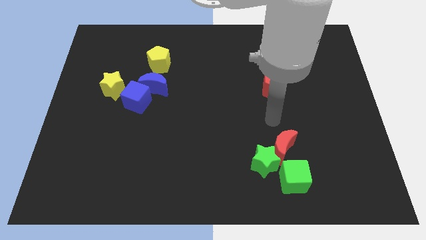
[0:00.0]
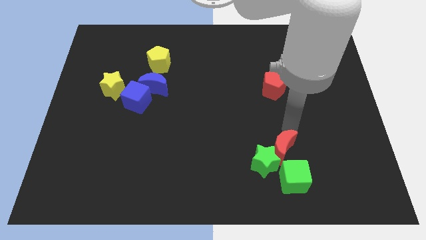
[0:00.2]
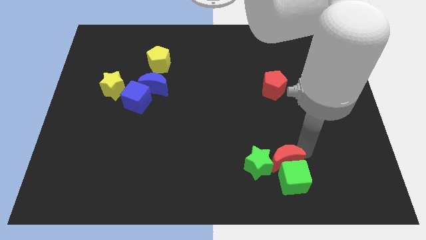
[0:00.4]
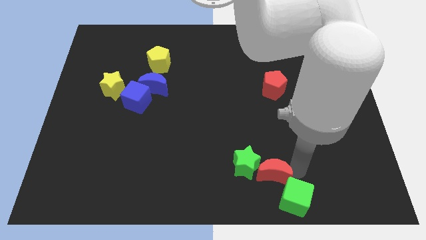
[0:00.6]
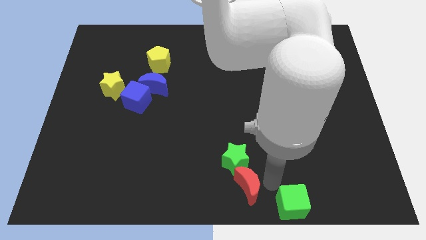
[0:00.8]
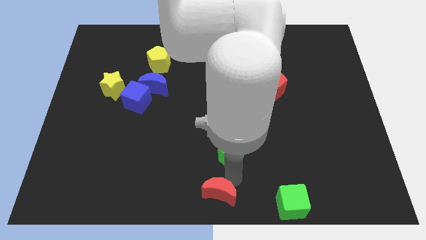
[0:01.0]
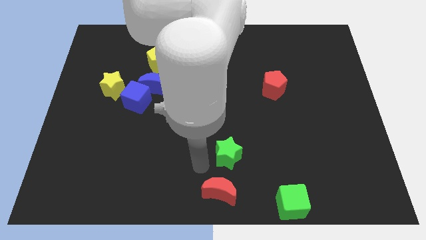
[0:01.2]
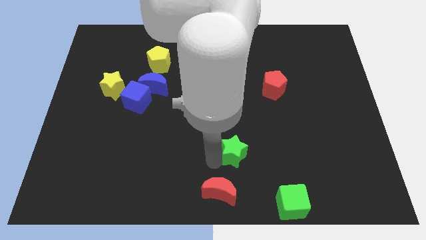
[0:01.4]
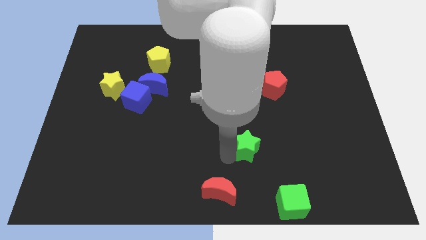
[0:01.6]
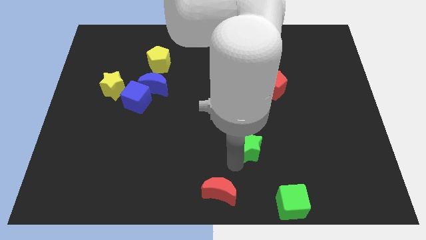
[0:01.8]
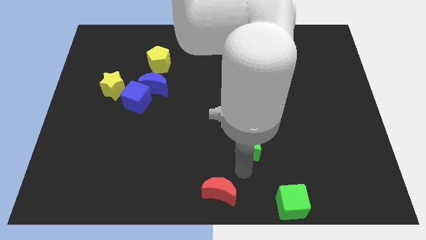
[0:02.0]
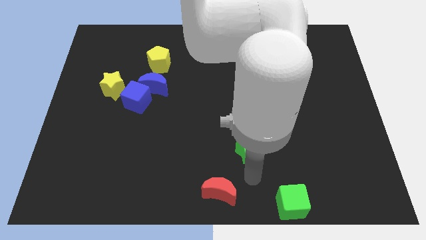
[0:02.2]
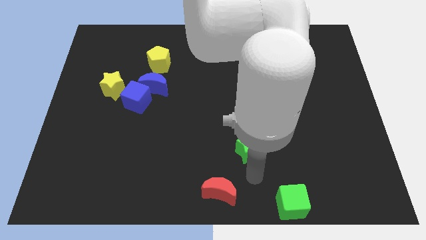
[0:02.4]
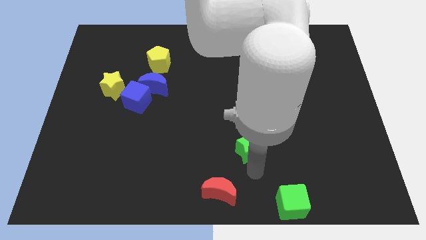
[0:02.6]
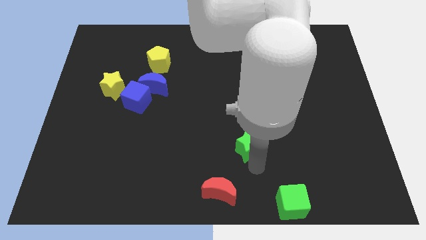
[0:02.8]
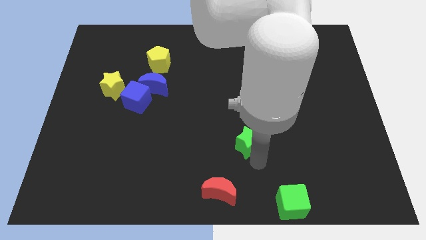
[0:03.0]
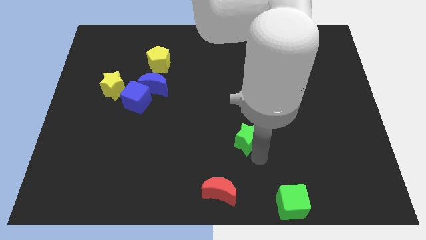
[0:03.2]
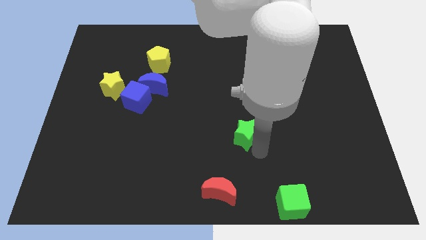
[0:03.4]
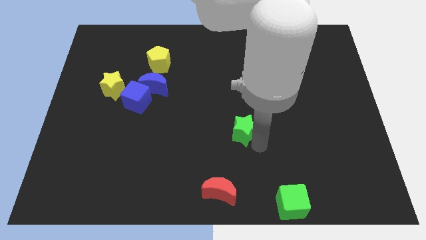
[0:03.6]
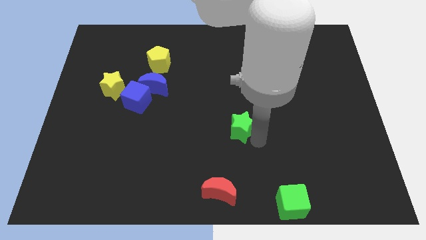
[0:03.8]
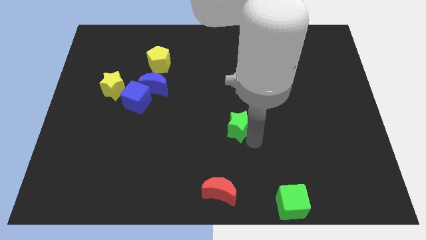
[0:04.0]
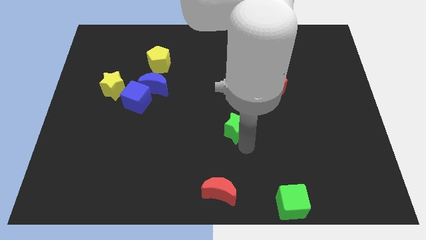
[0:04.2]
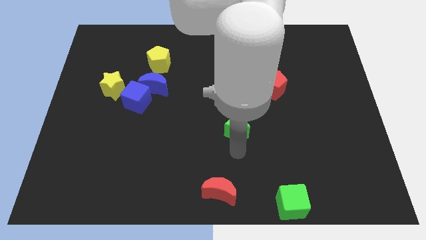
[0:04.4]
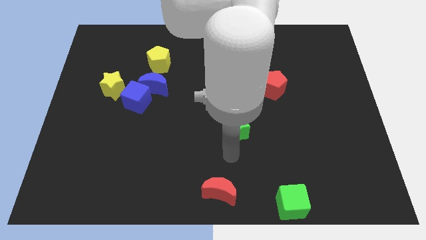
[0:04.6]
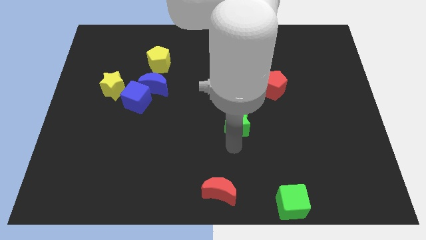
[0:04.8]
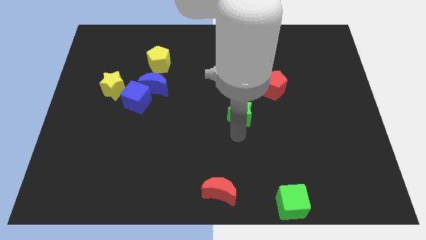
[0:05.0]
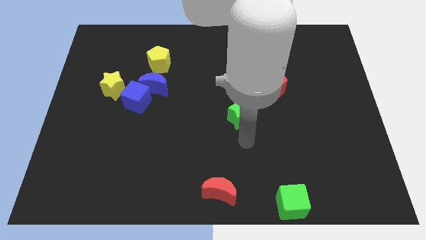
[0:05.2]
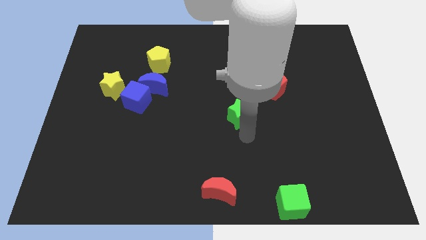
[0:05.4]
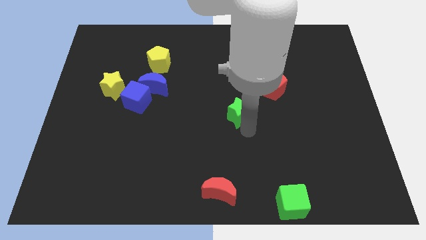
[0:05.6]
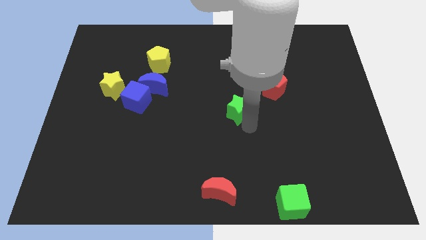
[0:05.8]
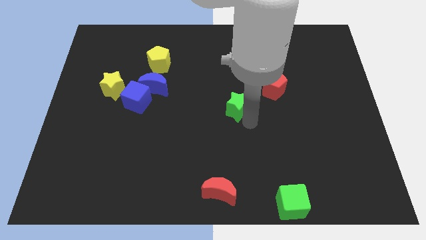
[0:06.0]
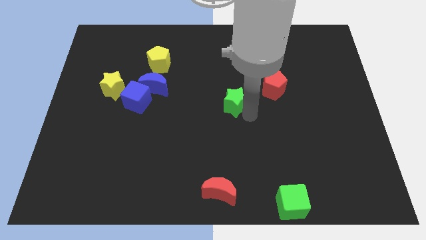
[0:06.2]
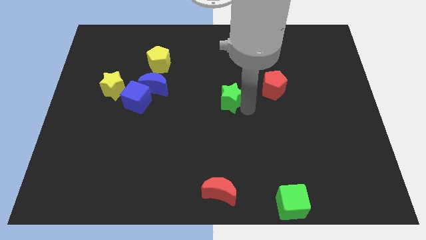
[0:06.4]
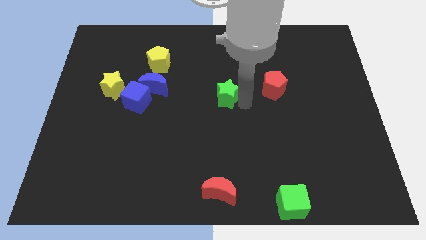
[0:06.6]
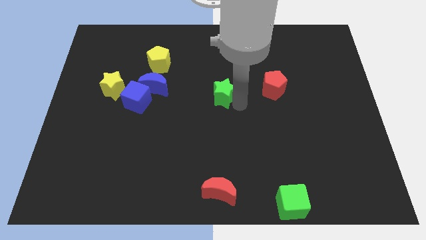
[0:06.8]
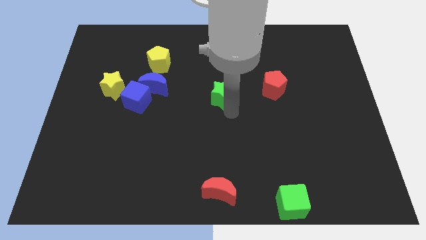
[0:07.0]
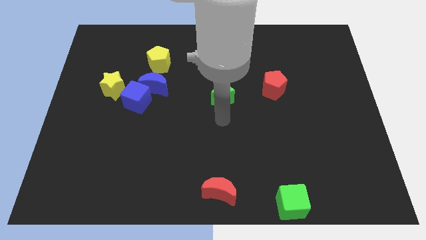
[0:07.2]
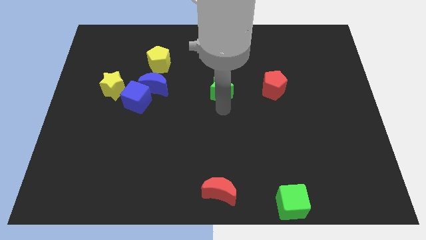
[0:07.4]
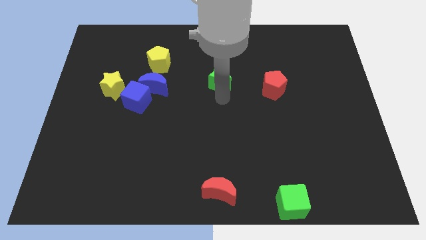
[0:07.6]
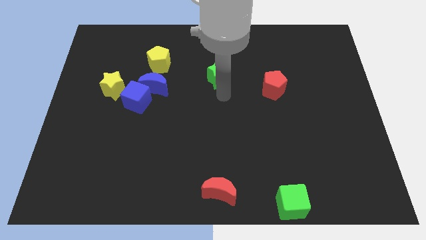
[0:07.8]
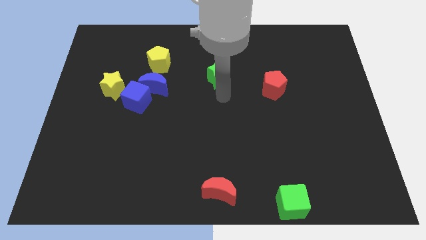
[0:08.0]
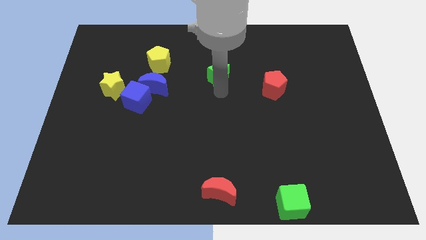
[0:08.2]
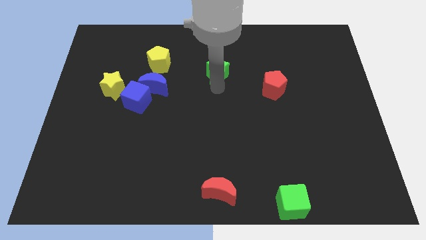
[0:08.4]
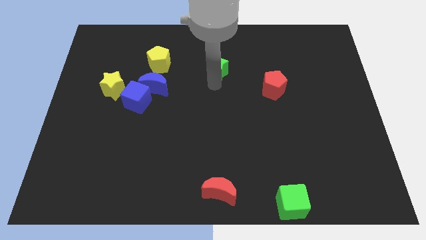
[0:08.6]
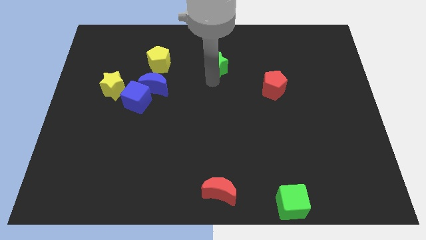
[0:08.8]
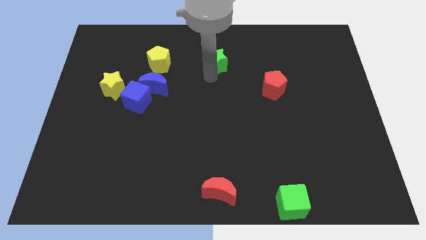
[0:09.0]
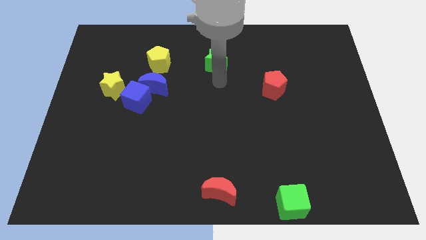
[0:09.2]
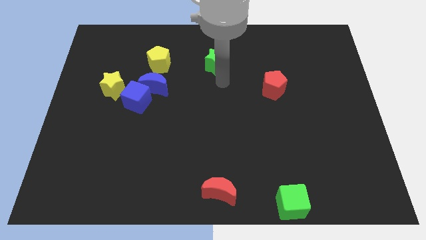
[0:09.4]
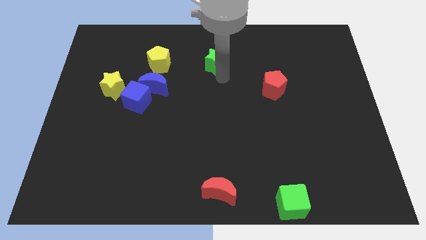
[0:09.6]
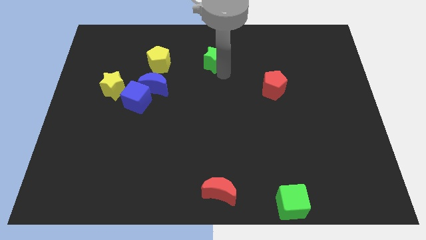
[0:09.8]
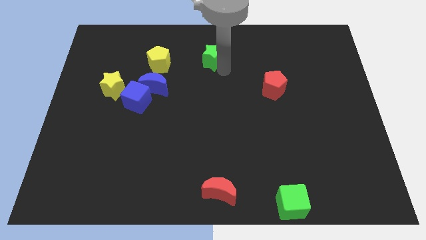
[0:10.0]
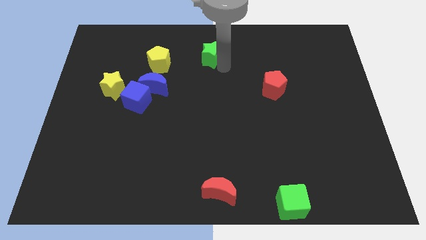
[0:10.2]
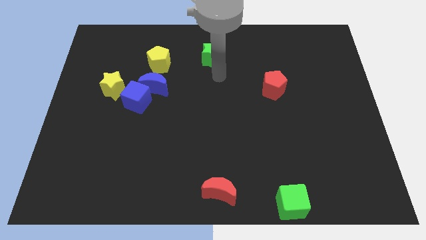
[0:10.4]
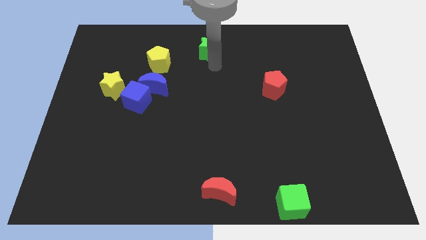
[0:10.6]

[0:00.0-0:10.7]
slide the green star to the top
